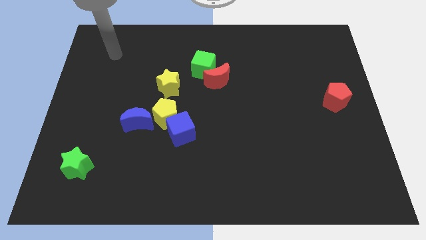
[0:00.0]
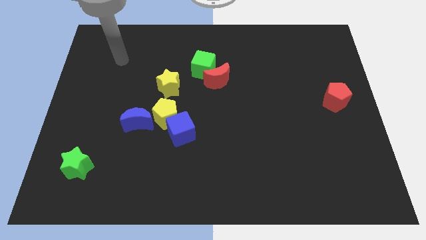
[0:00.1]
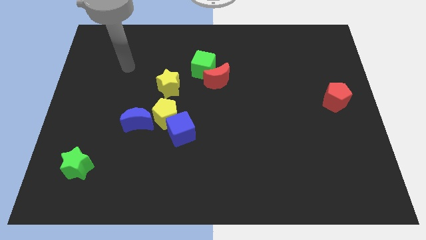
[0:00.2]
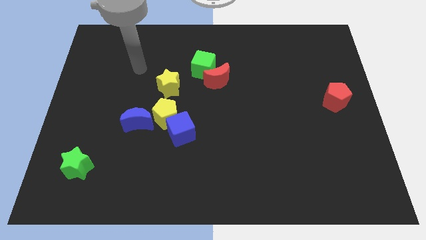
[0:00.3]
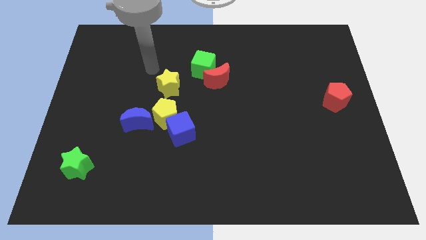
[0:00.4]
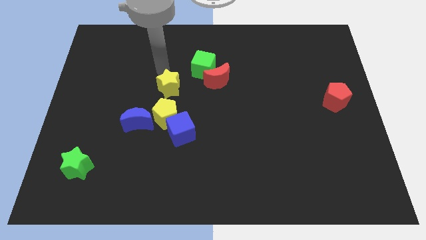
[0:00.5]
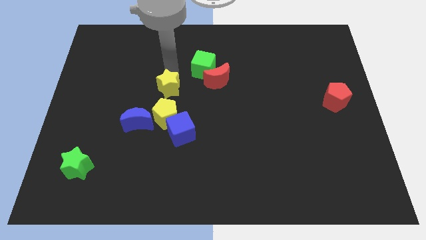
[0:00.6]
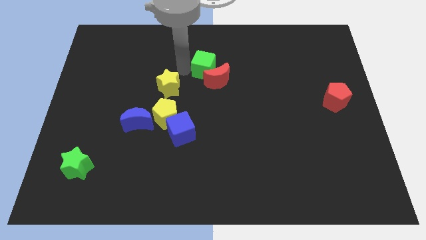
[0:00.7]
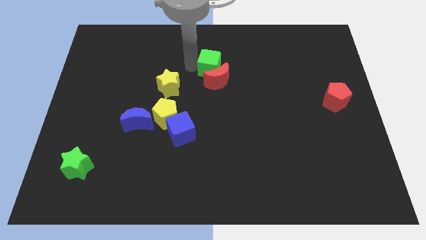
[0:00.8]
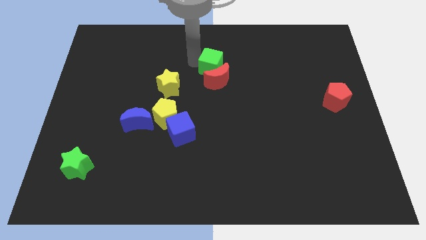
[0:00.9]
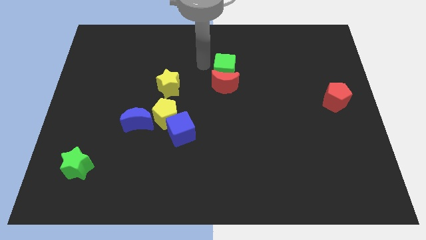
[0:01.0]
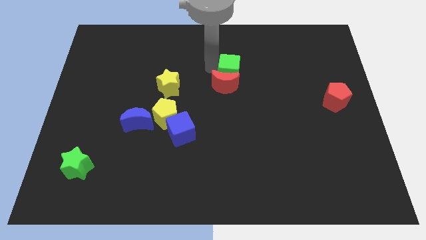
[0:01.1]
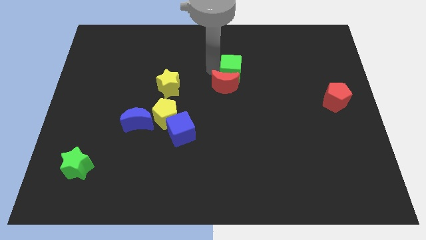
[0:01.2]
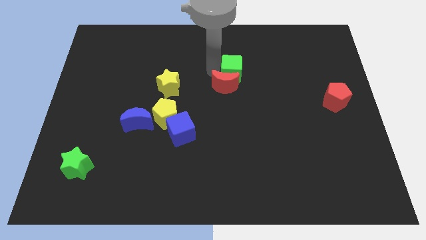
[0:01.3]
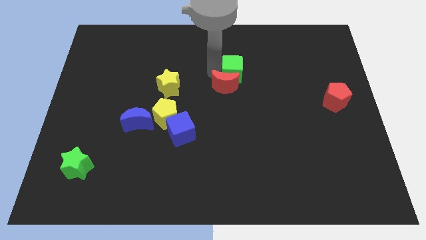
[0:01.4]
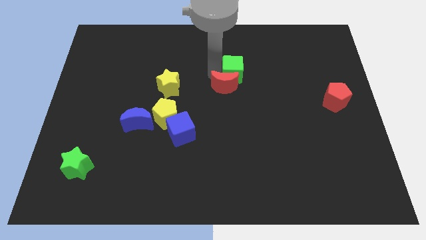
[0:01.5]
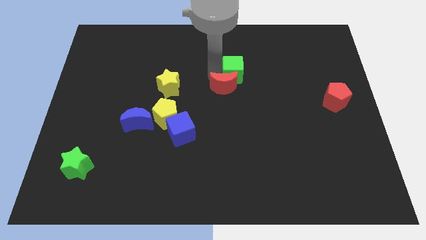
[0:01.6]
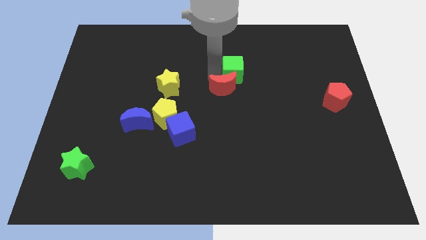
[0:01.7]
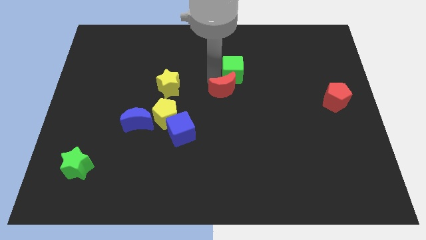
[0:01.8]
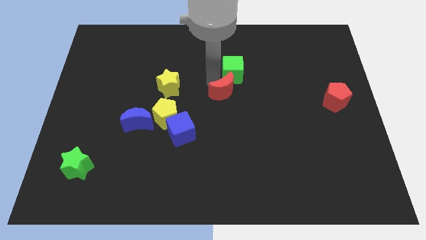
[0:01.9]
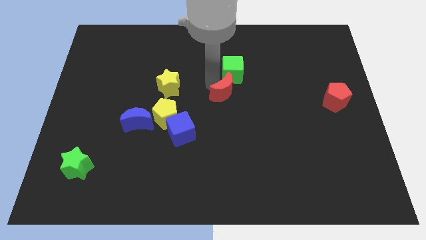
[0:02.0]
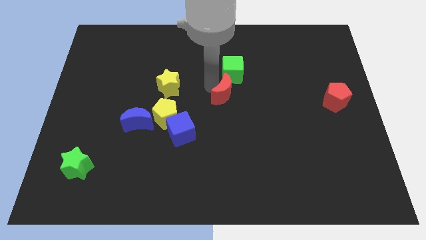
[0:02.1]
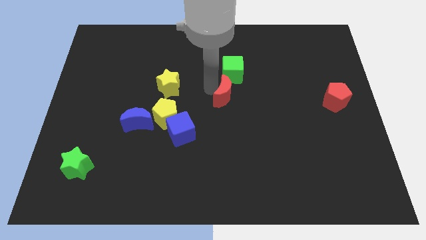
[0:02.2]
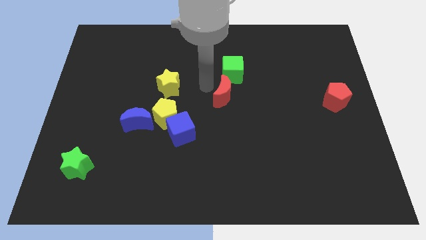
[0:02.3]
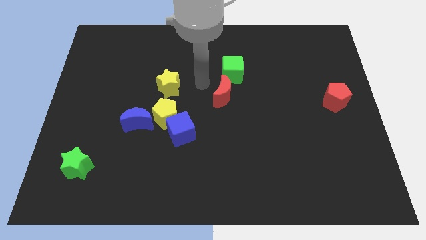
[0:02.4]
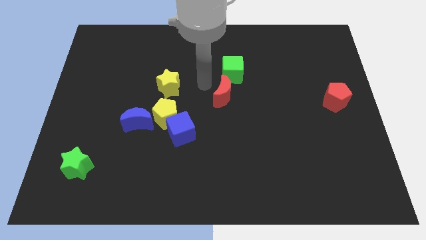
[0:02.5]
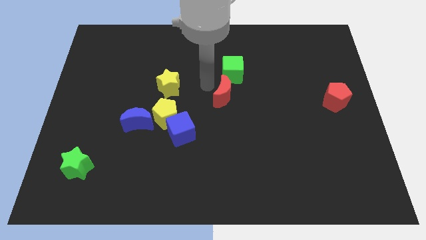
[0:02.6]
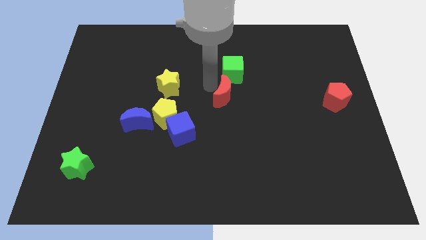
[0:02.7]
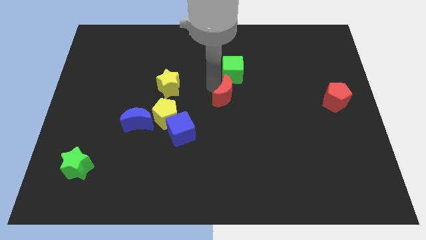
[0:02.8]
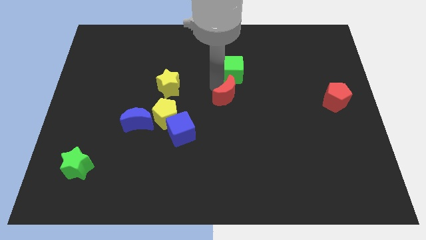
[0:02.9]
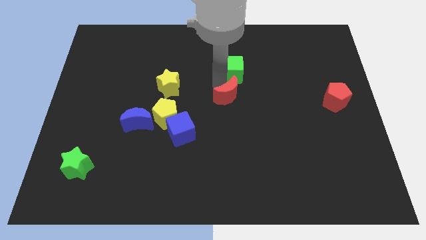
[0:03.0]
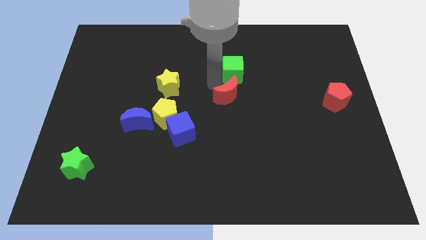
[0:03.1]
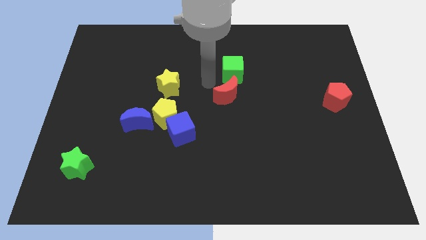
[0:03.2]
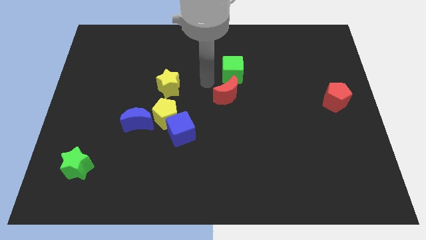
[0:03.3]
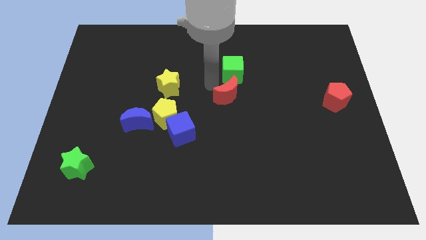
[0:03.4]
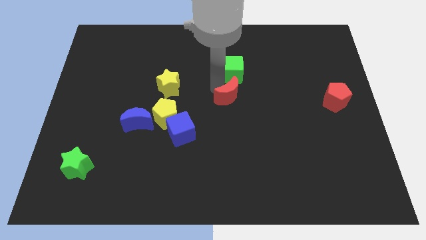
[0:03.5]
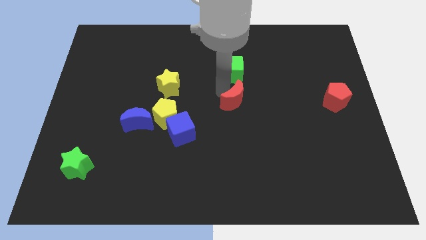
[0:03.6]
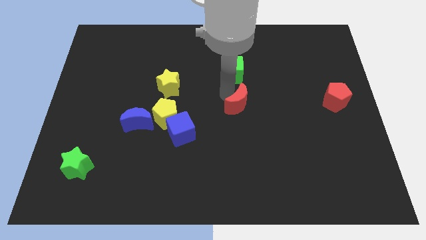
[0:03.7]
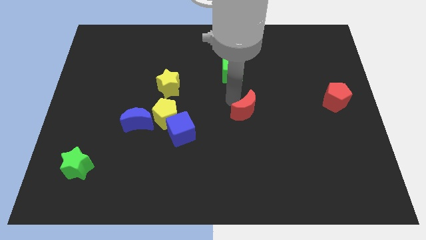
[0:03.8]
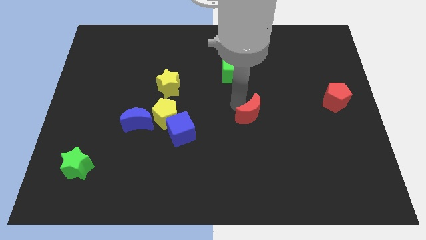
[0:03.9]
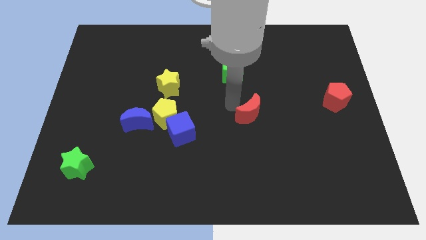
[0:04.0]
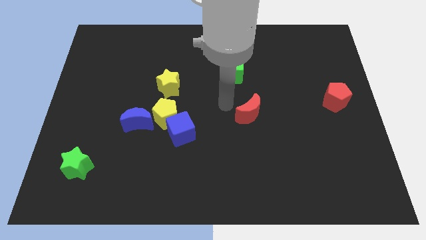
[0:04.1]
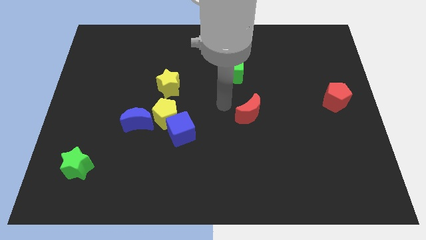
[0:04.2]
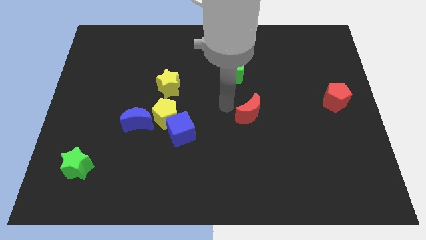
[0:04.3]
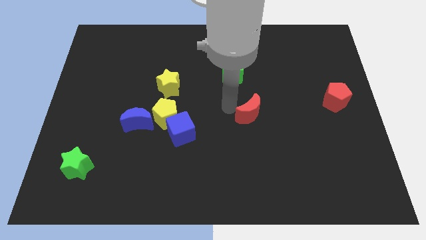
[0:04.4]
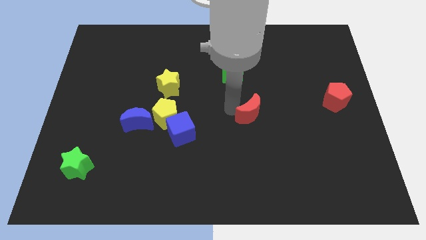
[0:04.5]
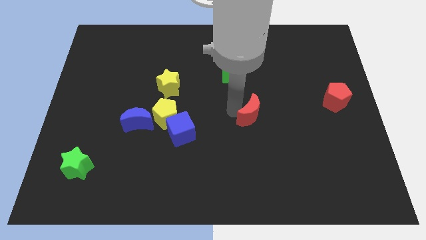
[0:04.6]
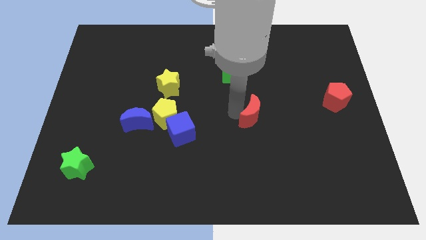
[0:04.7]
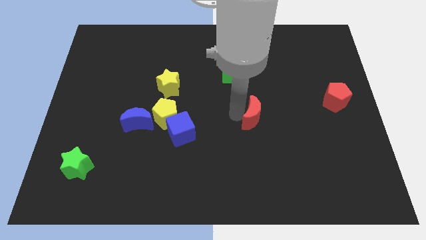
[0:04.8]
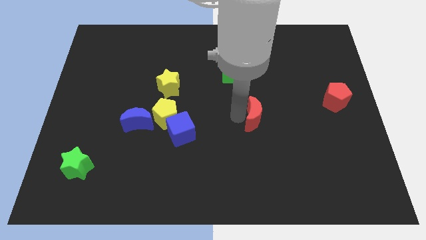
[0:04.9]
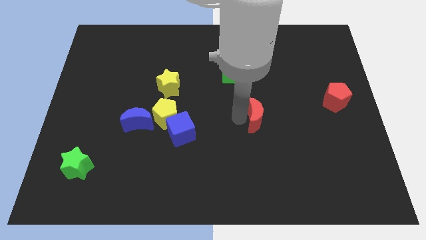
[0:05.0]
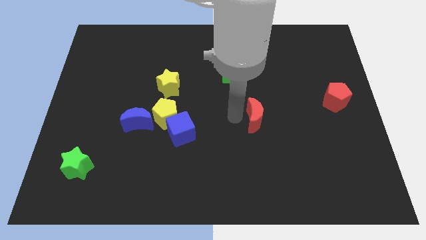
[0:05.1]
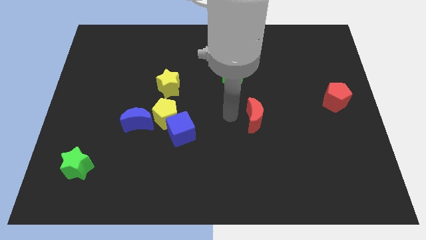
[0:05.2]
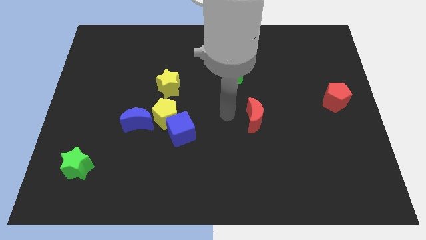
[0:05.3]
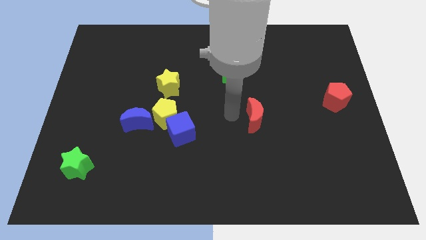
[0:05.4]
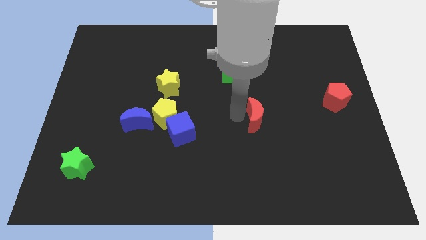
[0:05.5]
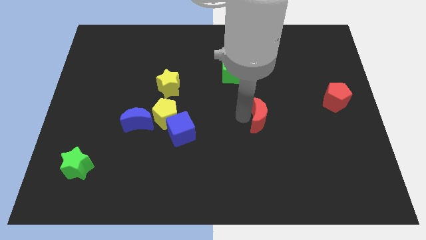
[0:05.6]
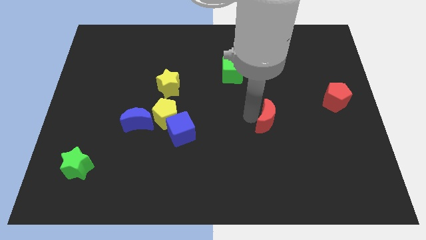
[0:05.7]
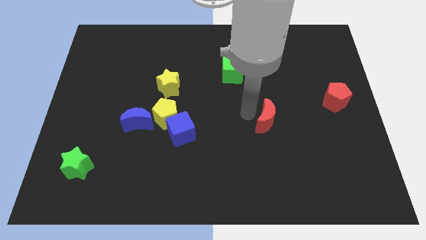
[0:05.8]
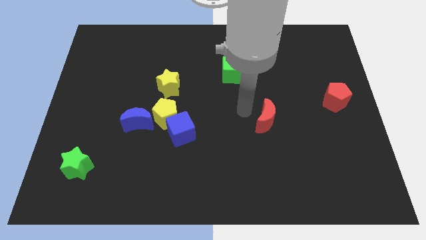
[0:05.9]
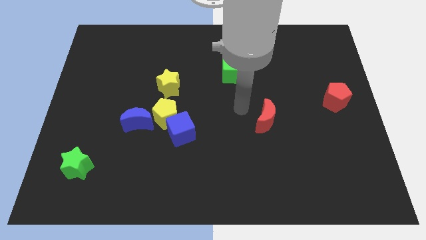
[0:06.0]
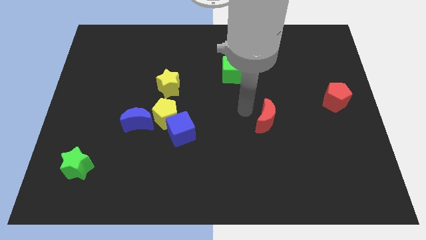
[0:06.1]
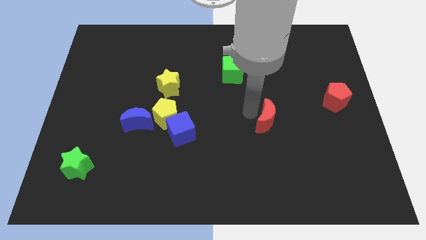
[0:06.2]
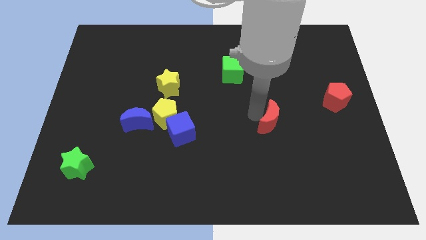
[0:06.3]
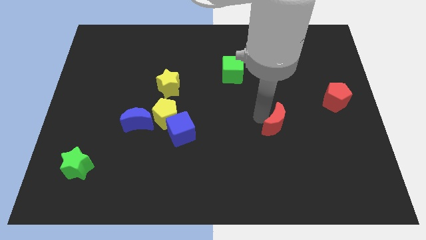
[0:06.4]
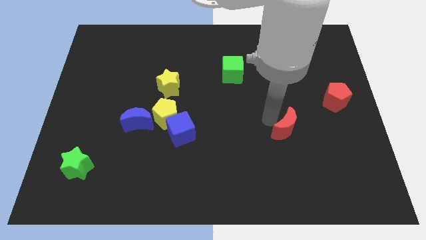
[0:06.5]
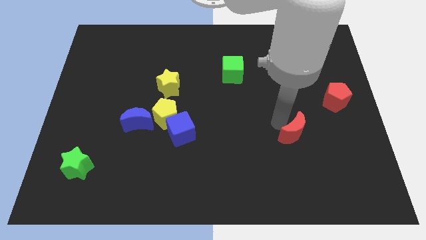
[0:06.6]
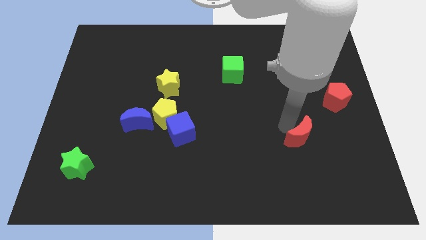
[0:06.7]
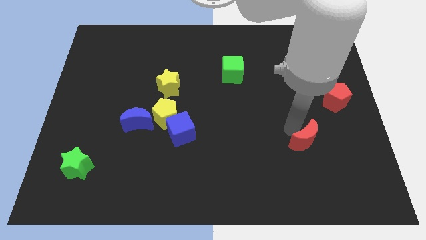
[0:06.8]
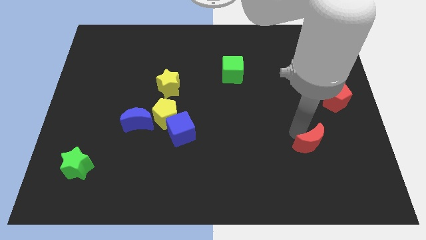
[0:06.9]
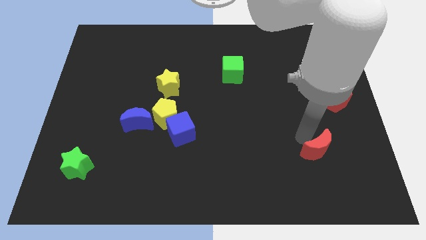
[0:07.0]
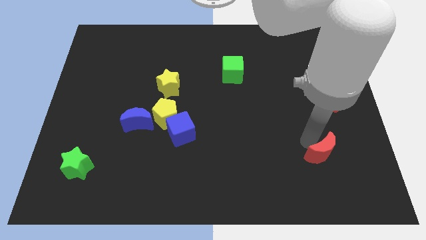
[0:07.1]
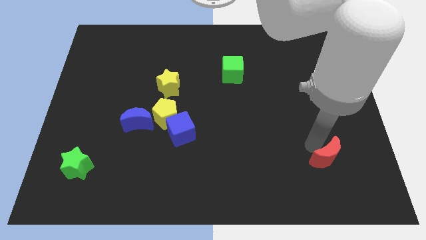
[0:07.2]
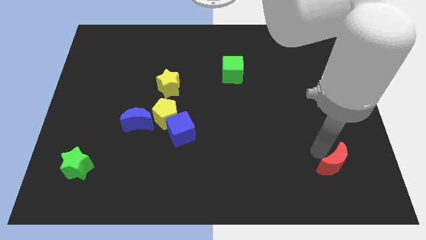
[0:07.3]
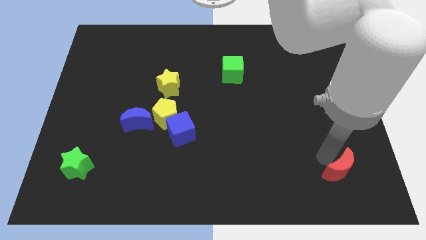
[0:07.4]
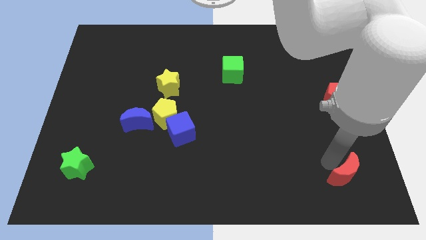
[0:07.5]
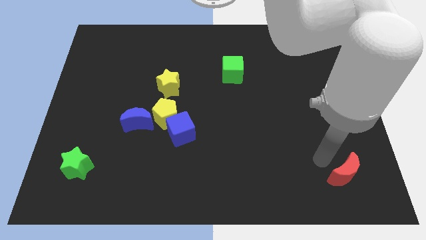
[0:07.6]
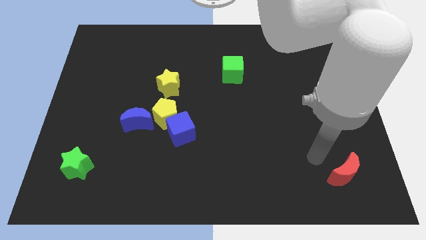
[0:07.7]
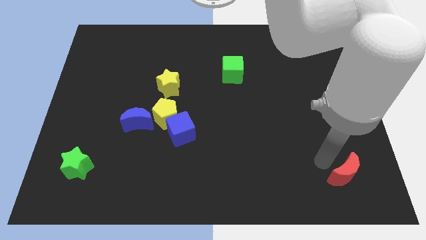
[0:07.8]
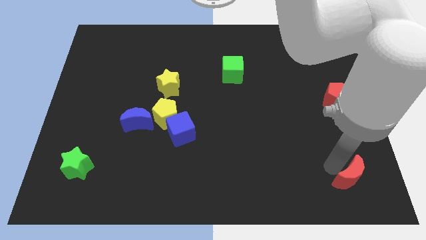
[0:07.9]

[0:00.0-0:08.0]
move the red moon to the lower right corner
